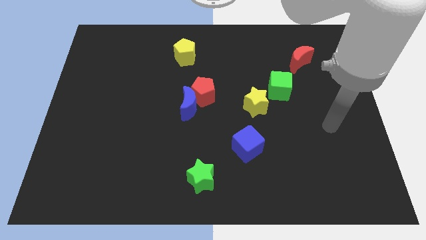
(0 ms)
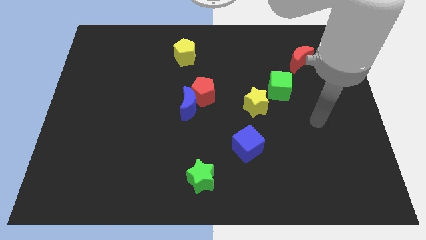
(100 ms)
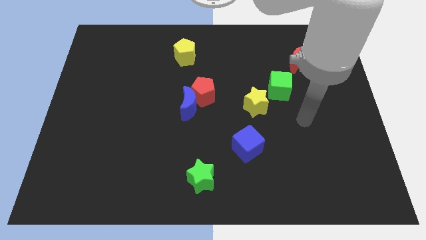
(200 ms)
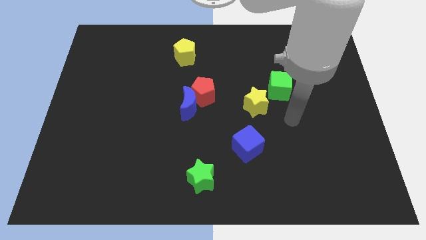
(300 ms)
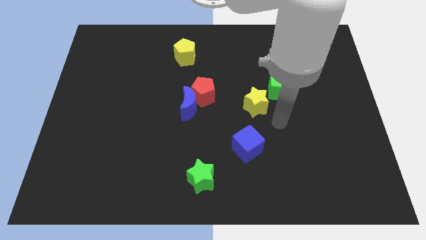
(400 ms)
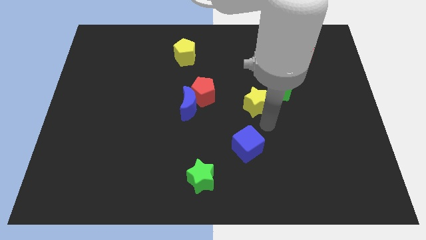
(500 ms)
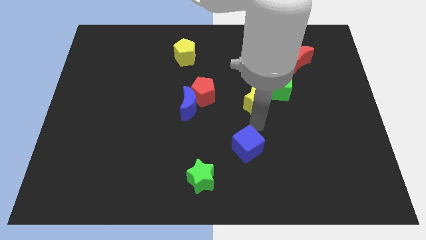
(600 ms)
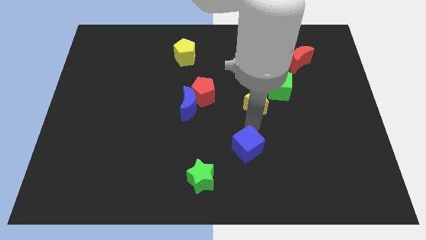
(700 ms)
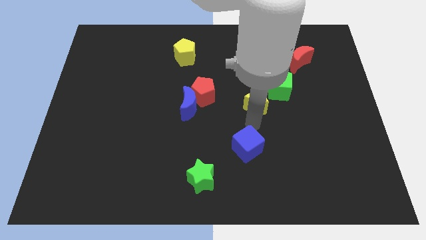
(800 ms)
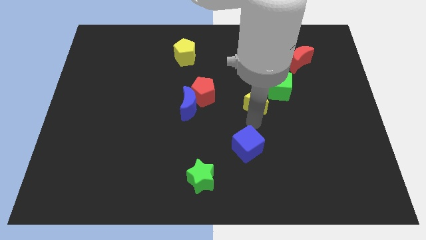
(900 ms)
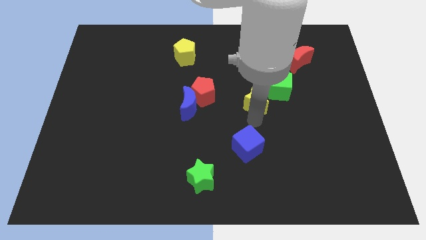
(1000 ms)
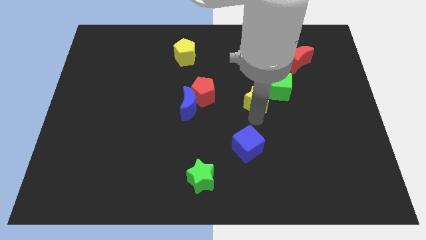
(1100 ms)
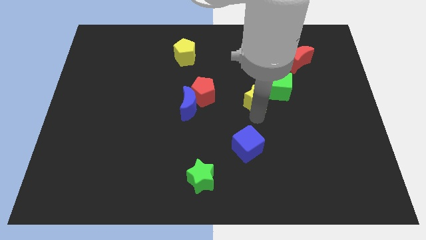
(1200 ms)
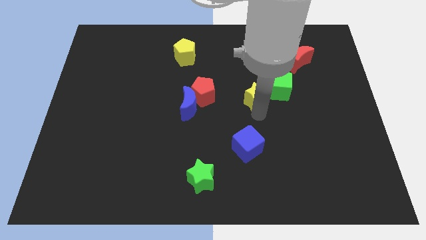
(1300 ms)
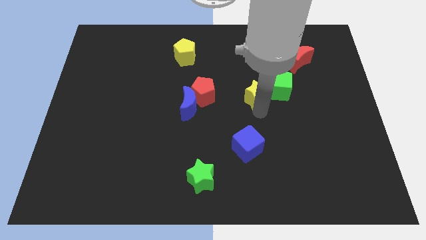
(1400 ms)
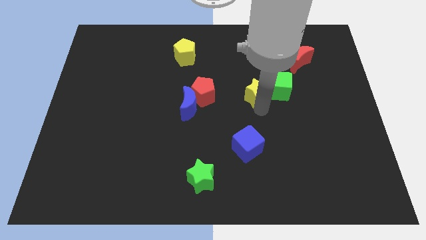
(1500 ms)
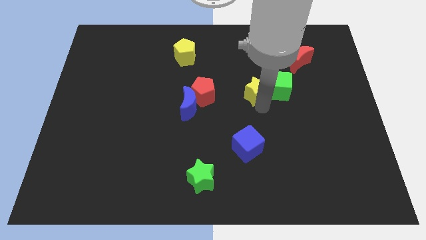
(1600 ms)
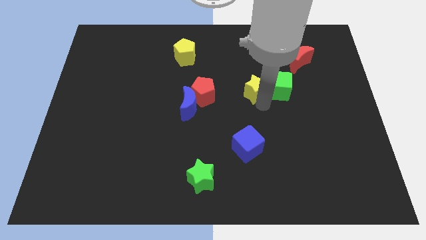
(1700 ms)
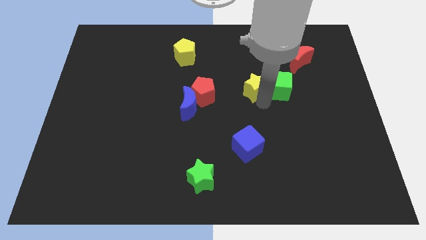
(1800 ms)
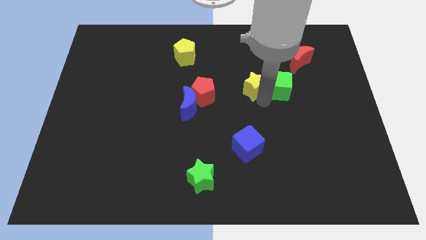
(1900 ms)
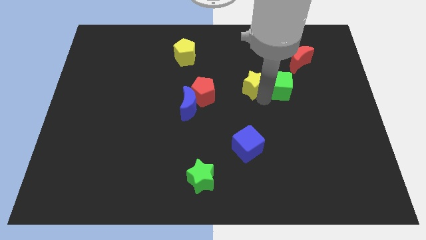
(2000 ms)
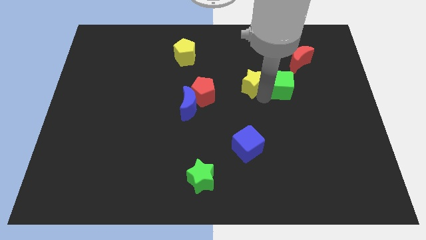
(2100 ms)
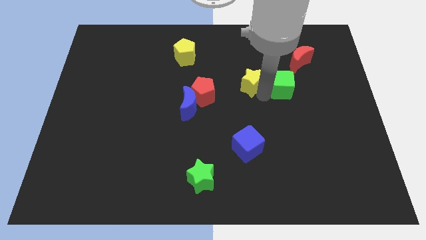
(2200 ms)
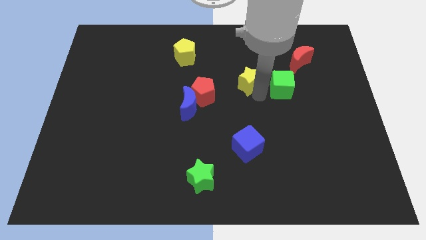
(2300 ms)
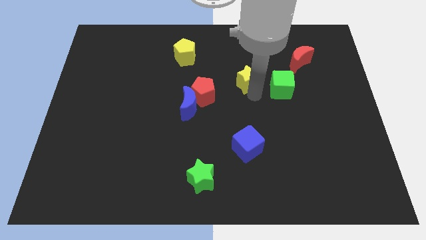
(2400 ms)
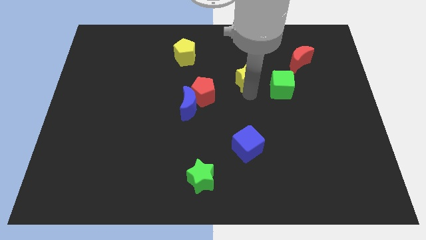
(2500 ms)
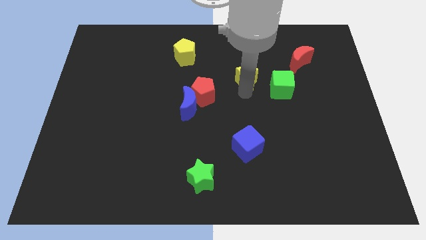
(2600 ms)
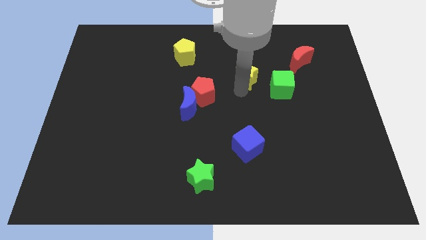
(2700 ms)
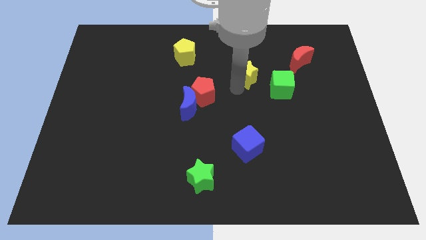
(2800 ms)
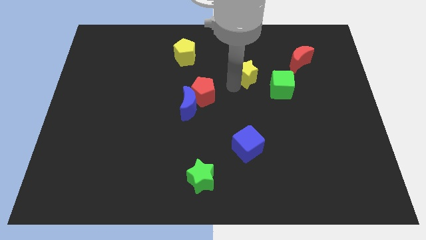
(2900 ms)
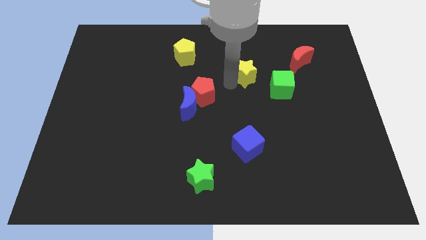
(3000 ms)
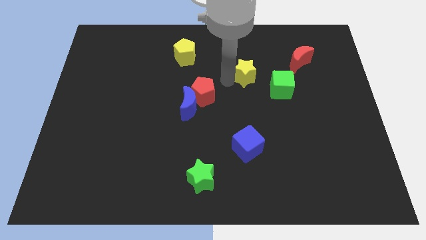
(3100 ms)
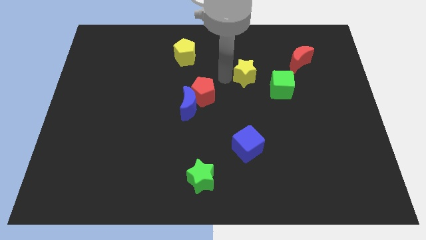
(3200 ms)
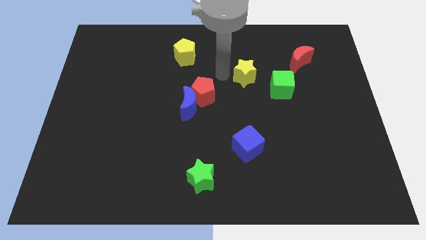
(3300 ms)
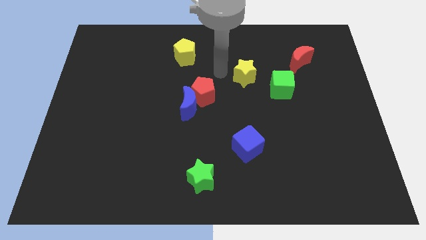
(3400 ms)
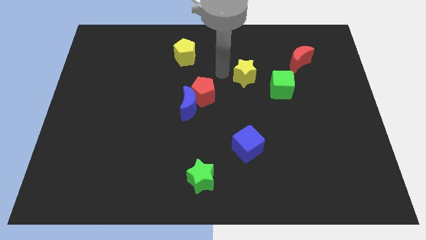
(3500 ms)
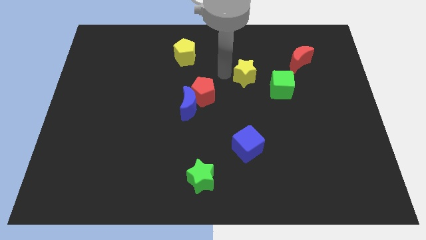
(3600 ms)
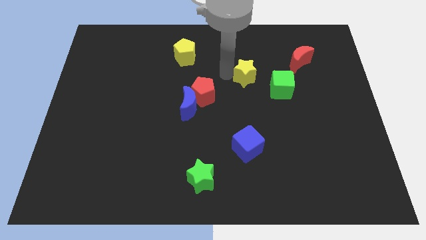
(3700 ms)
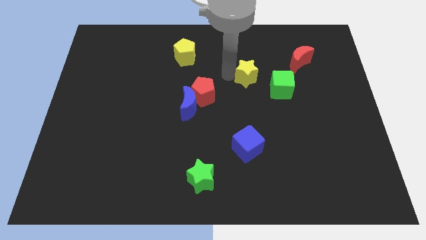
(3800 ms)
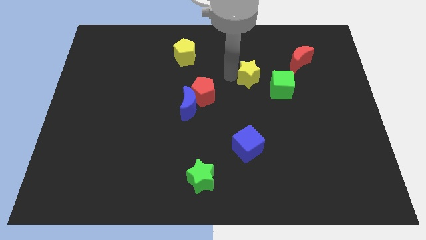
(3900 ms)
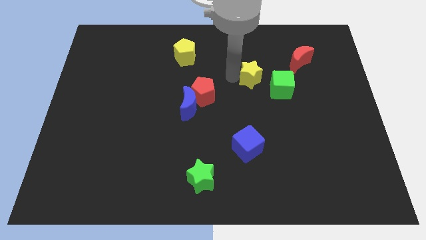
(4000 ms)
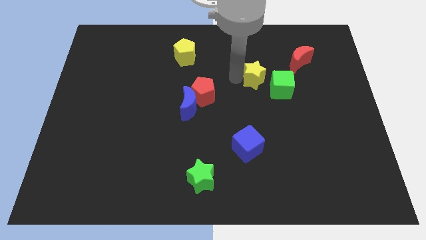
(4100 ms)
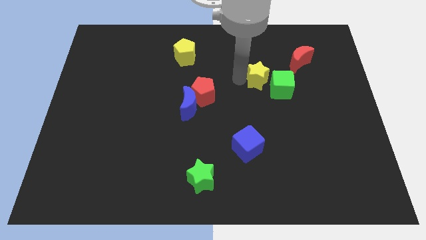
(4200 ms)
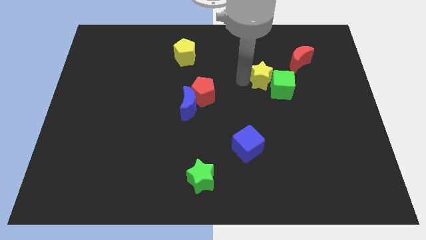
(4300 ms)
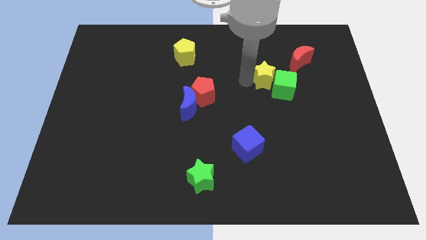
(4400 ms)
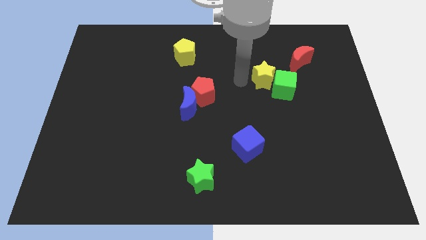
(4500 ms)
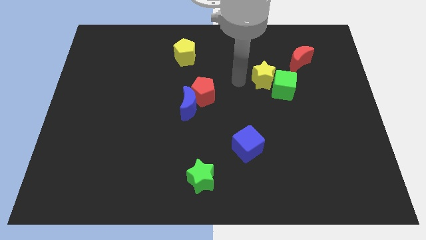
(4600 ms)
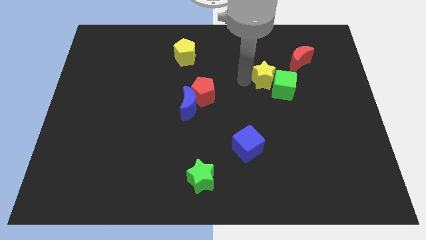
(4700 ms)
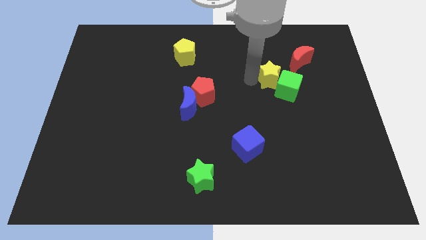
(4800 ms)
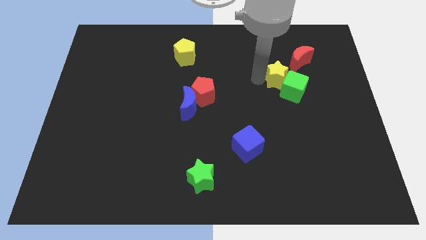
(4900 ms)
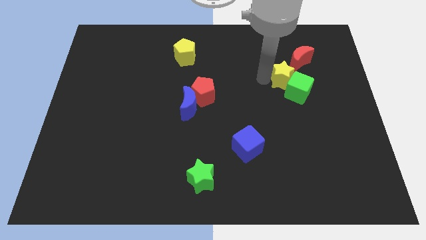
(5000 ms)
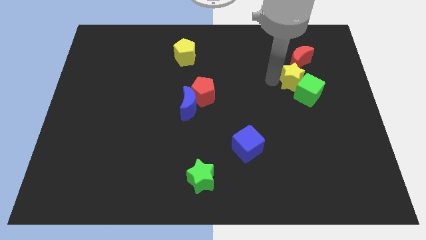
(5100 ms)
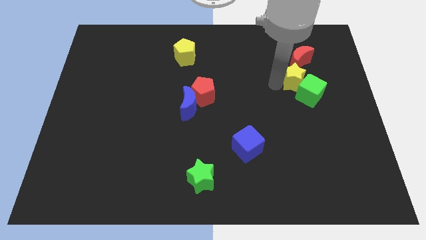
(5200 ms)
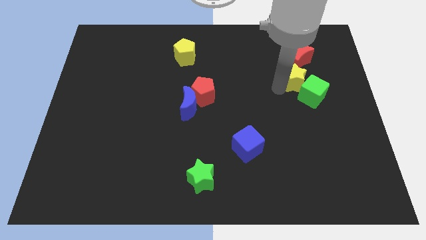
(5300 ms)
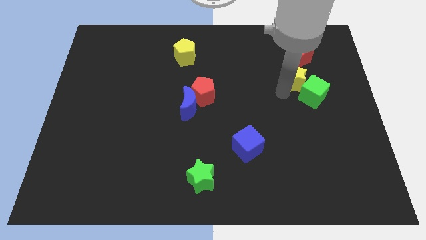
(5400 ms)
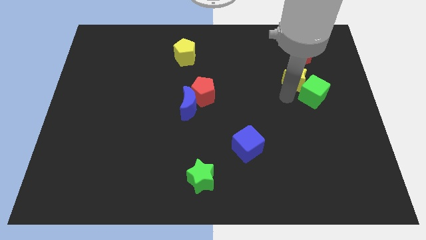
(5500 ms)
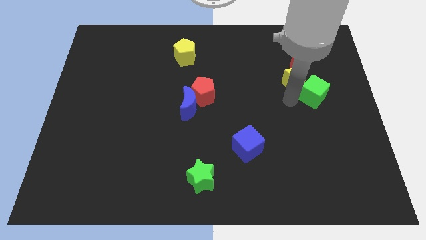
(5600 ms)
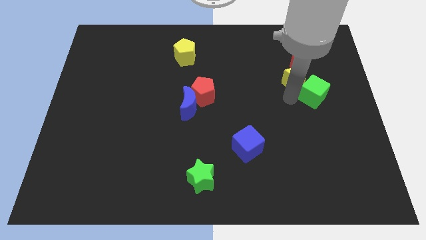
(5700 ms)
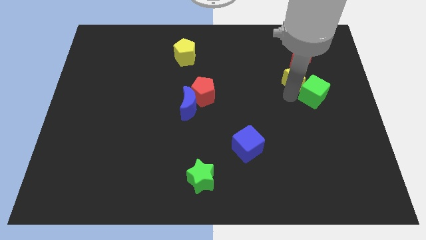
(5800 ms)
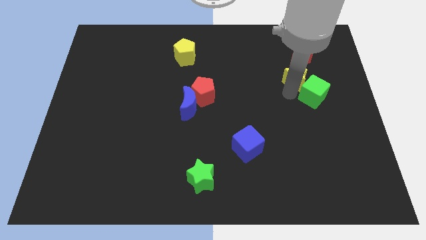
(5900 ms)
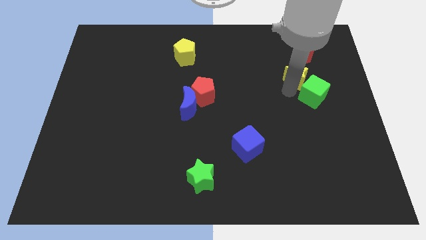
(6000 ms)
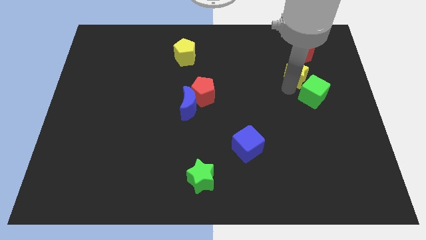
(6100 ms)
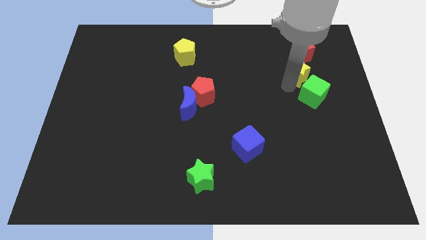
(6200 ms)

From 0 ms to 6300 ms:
put the yellow star close to the red moon
